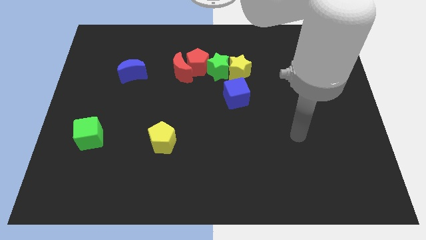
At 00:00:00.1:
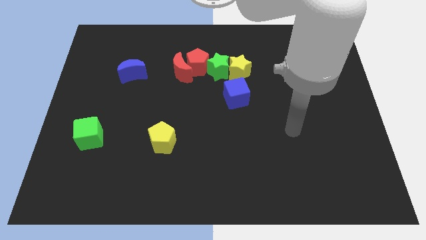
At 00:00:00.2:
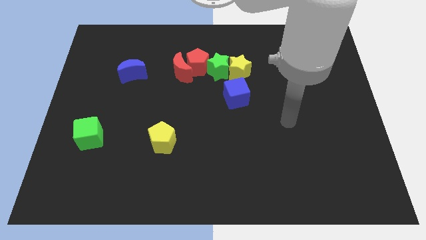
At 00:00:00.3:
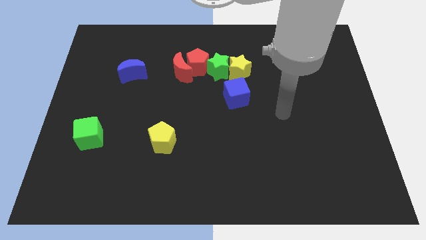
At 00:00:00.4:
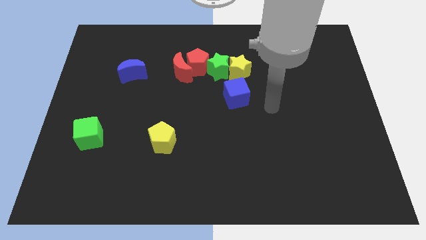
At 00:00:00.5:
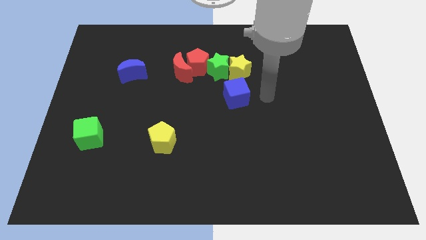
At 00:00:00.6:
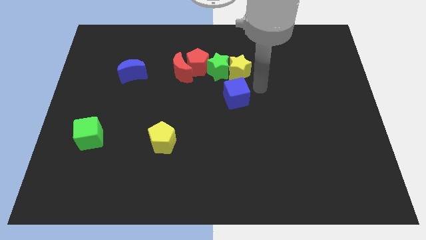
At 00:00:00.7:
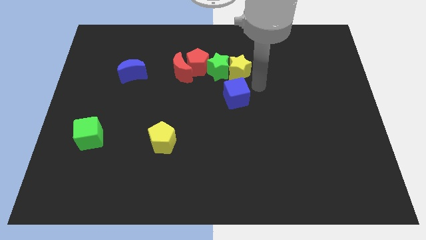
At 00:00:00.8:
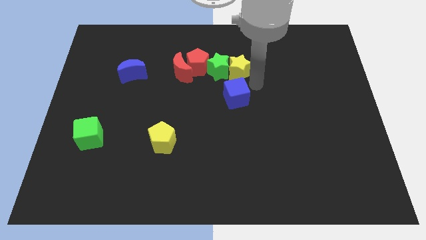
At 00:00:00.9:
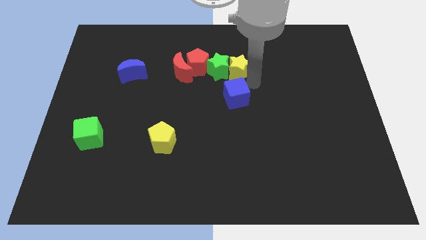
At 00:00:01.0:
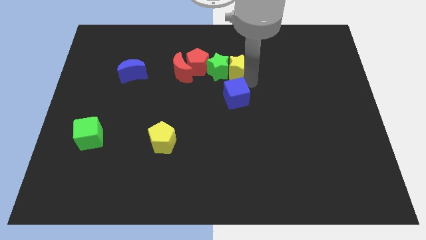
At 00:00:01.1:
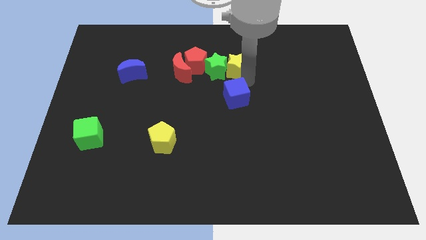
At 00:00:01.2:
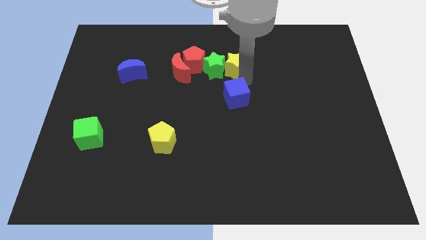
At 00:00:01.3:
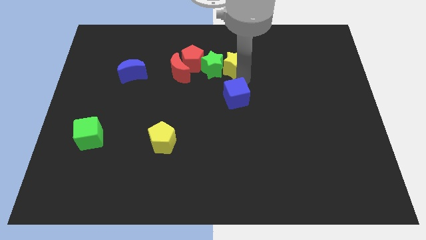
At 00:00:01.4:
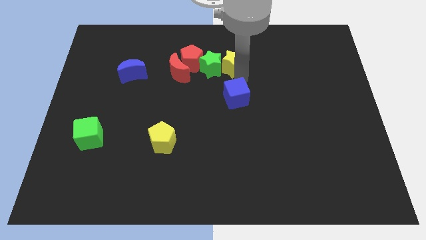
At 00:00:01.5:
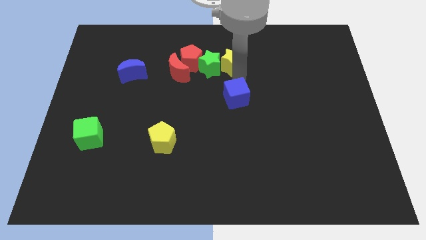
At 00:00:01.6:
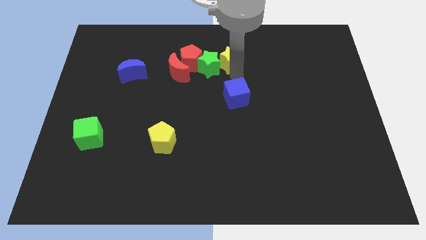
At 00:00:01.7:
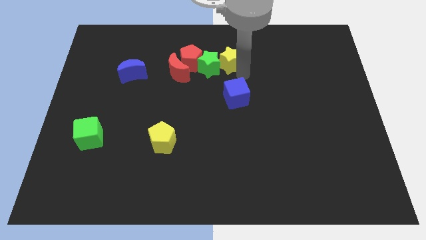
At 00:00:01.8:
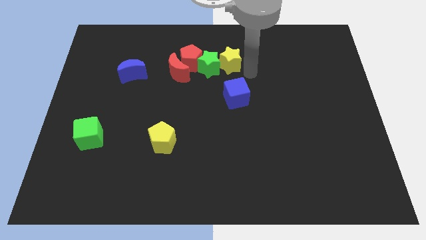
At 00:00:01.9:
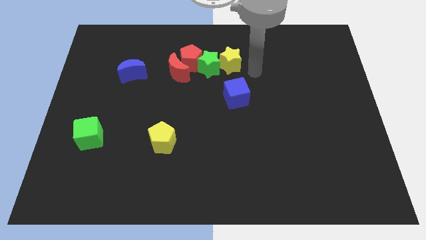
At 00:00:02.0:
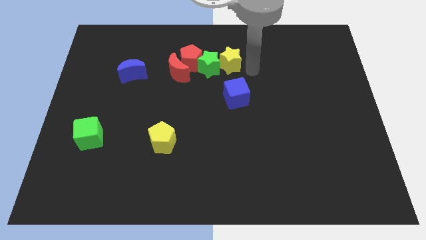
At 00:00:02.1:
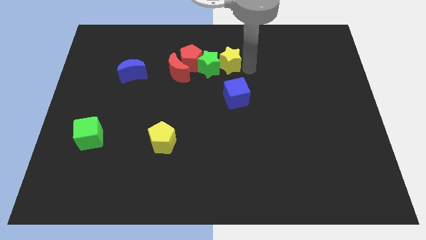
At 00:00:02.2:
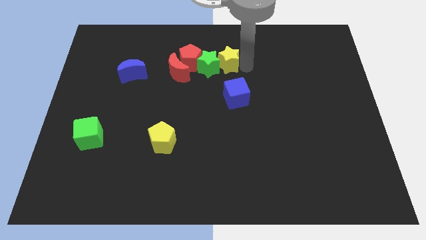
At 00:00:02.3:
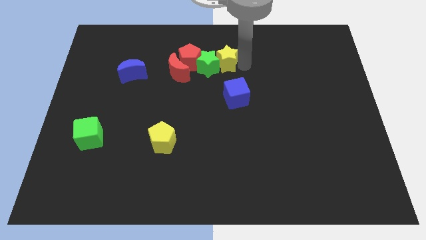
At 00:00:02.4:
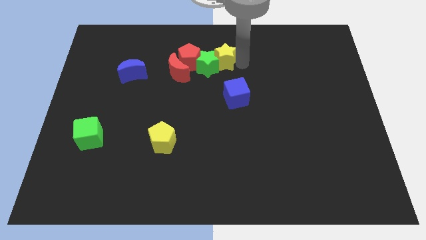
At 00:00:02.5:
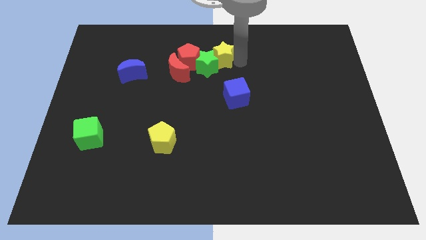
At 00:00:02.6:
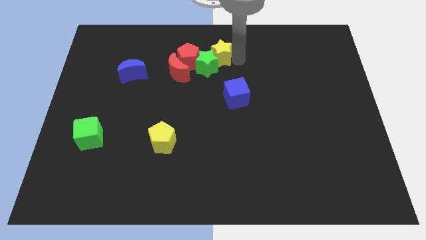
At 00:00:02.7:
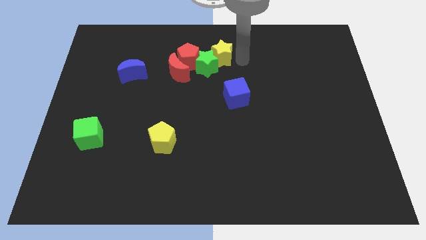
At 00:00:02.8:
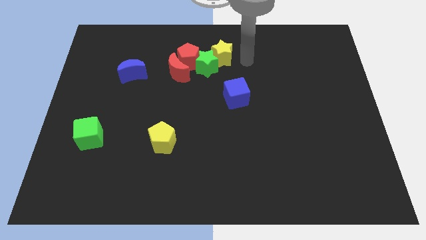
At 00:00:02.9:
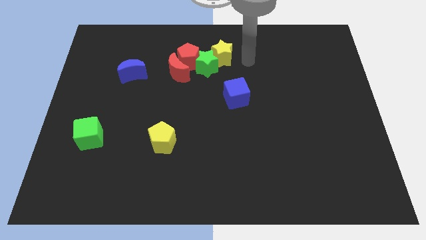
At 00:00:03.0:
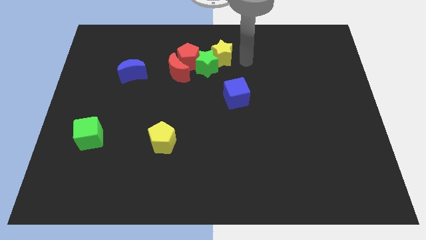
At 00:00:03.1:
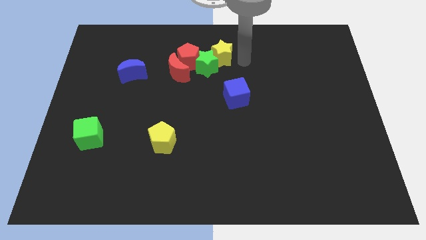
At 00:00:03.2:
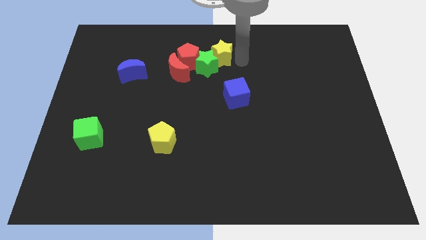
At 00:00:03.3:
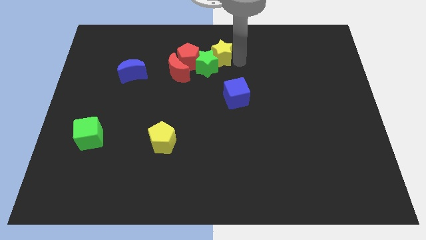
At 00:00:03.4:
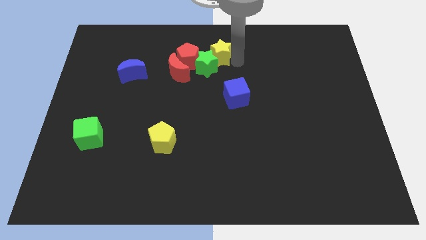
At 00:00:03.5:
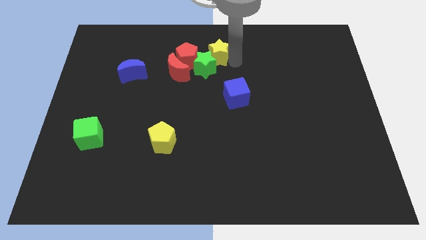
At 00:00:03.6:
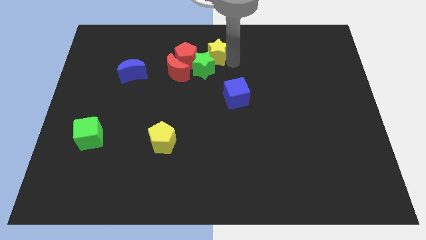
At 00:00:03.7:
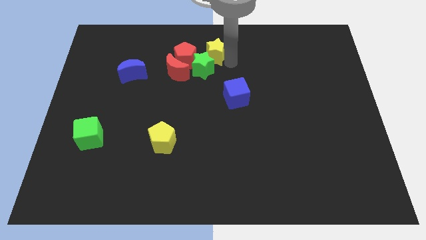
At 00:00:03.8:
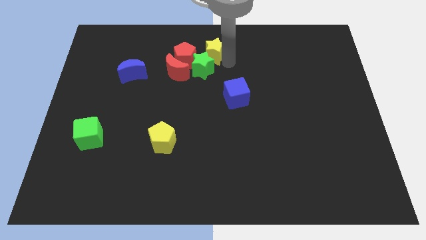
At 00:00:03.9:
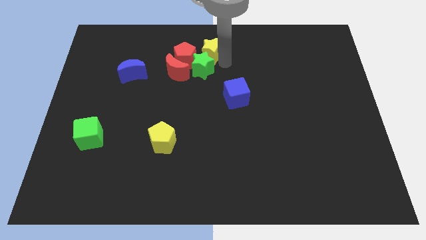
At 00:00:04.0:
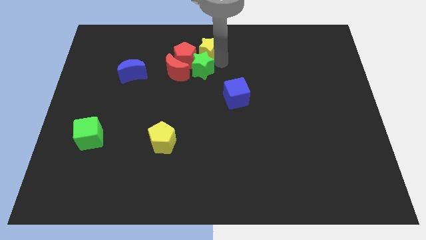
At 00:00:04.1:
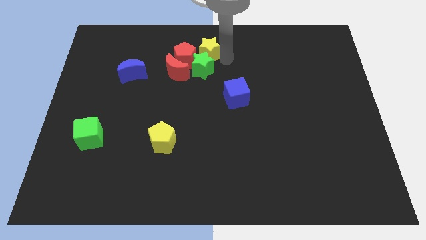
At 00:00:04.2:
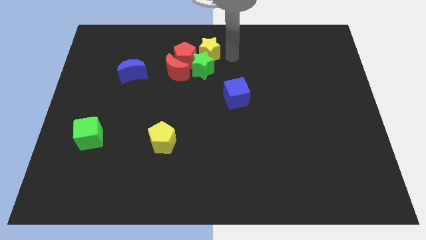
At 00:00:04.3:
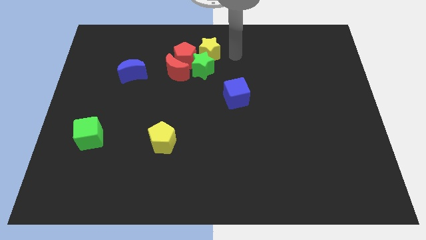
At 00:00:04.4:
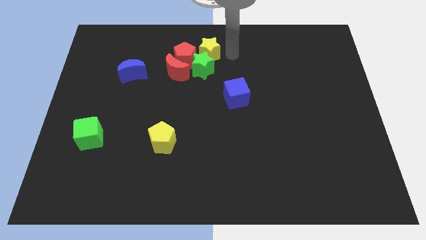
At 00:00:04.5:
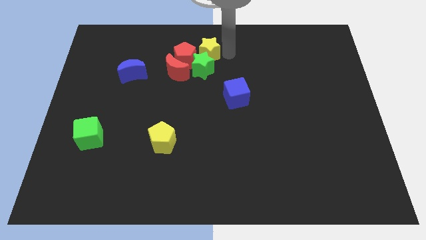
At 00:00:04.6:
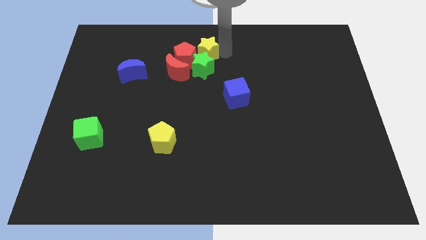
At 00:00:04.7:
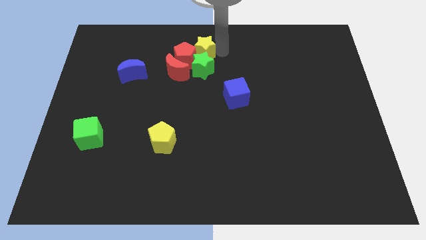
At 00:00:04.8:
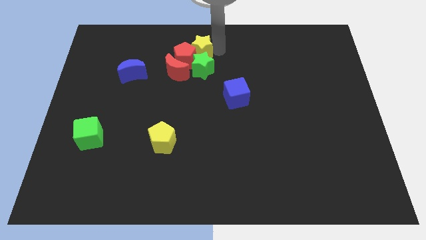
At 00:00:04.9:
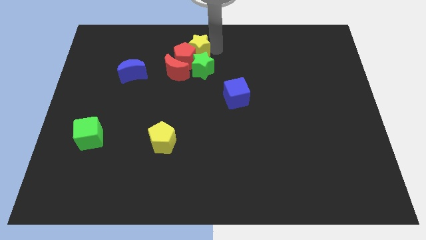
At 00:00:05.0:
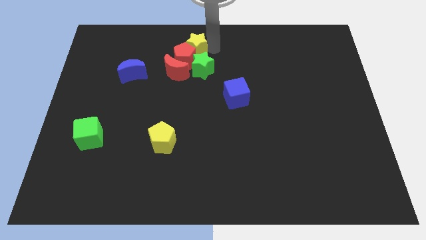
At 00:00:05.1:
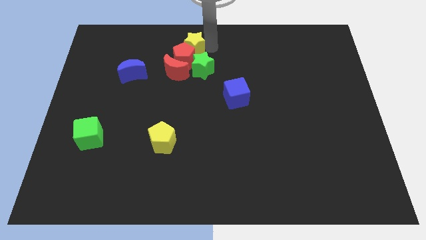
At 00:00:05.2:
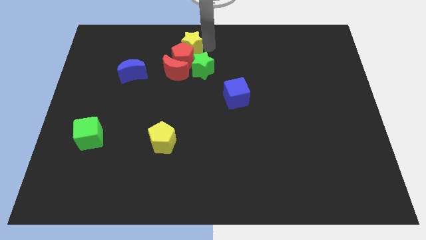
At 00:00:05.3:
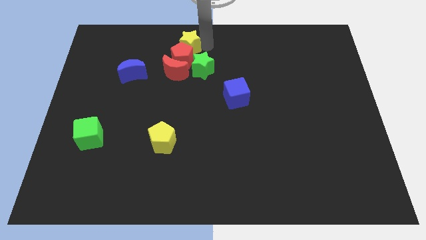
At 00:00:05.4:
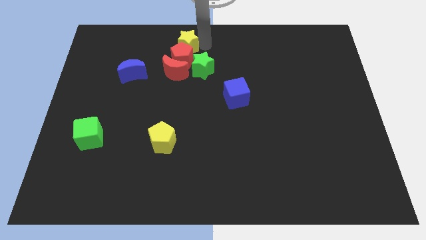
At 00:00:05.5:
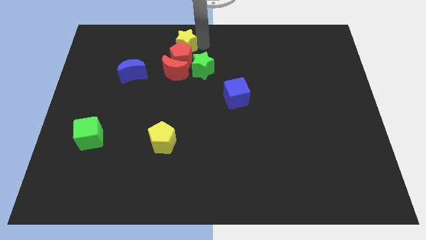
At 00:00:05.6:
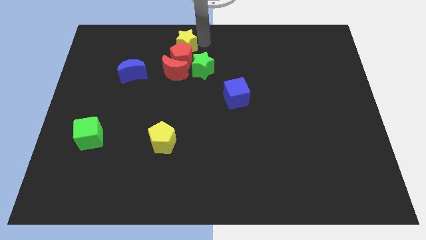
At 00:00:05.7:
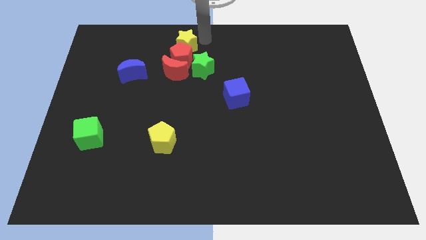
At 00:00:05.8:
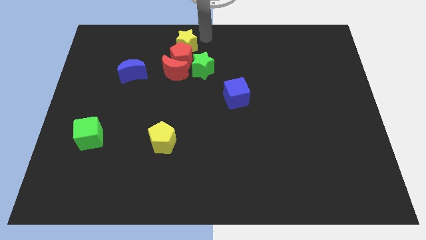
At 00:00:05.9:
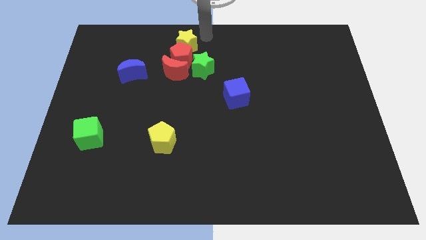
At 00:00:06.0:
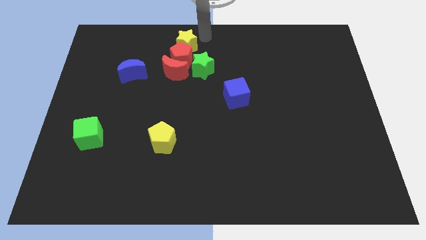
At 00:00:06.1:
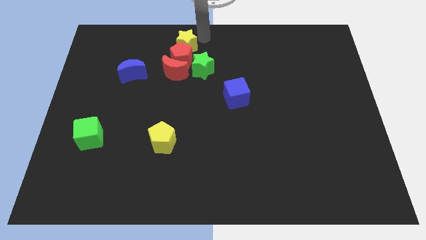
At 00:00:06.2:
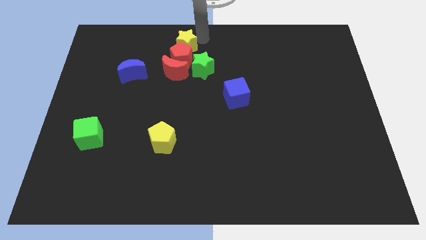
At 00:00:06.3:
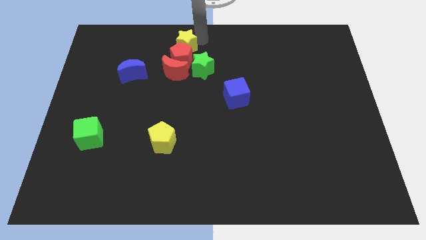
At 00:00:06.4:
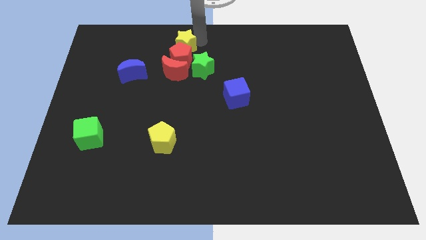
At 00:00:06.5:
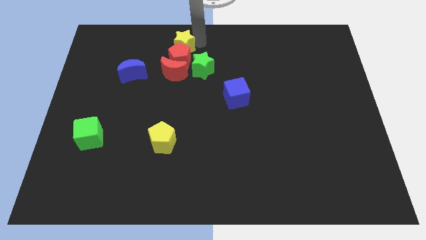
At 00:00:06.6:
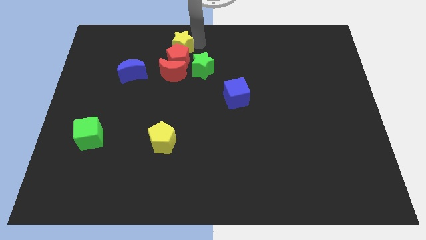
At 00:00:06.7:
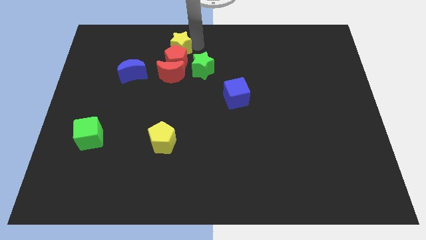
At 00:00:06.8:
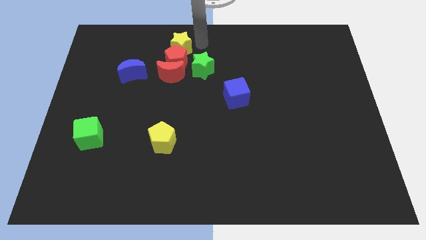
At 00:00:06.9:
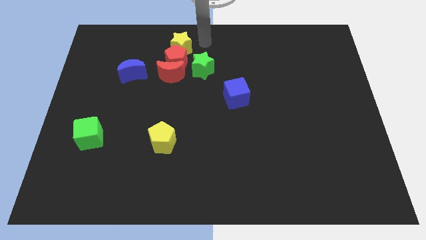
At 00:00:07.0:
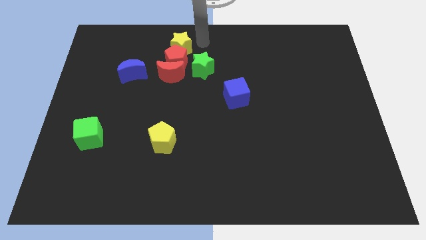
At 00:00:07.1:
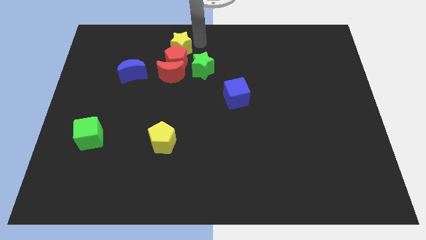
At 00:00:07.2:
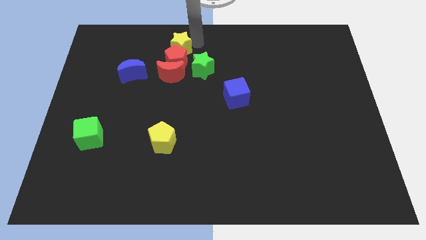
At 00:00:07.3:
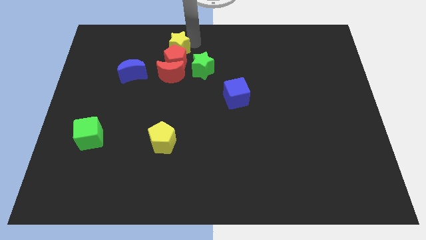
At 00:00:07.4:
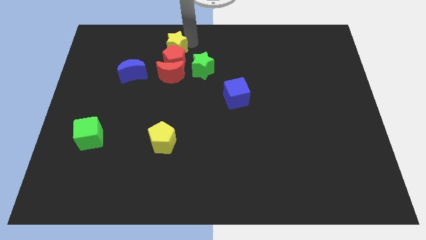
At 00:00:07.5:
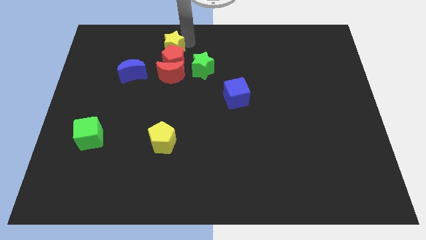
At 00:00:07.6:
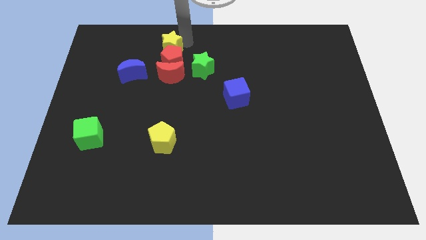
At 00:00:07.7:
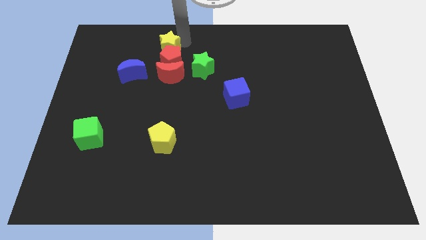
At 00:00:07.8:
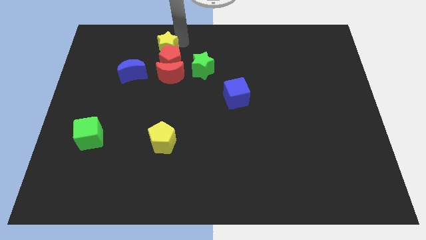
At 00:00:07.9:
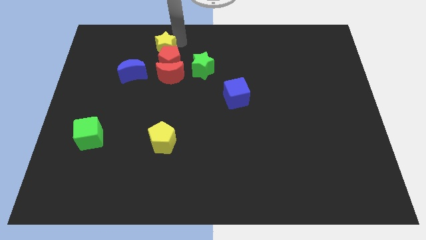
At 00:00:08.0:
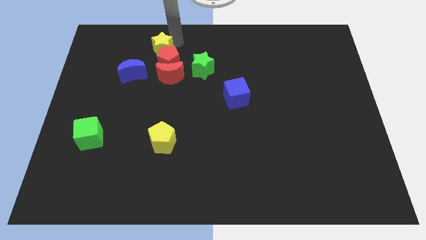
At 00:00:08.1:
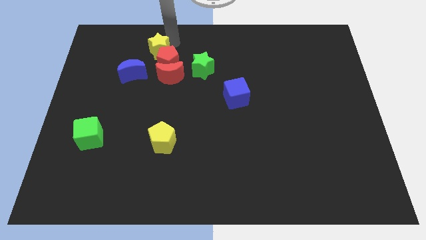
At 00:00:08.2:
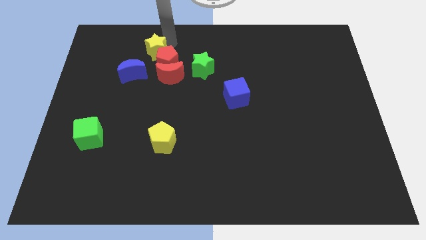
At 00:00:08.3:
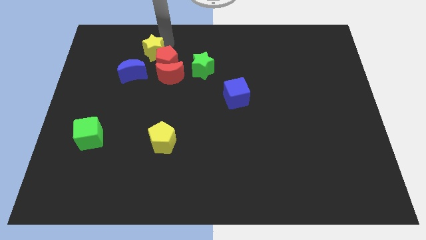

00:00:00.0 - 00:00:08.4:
slide the yellow star to the left
